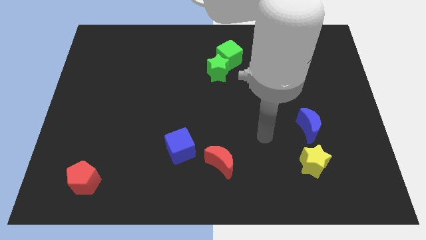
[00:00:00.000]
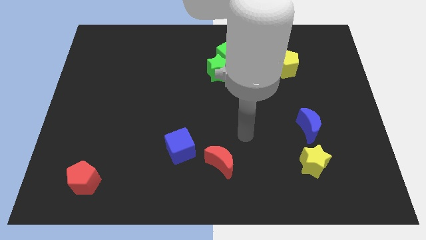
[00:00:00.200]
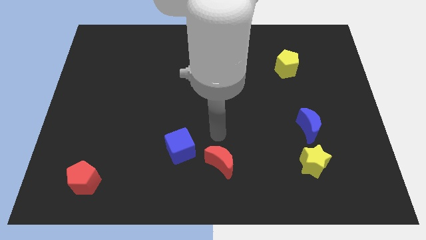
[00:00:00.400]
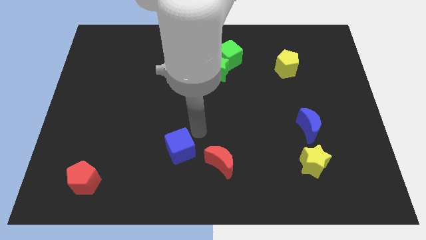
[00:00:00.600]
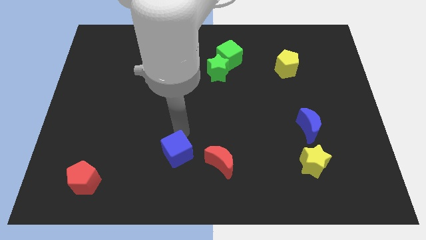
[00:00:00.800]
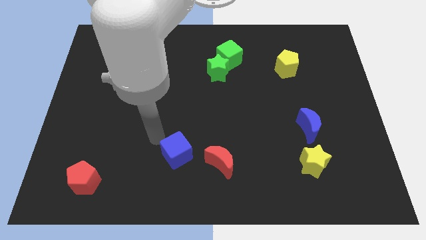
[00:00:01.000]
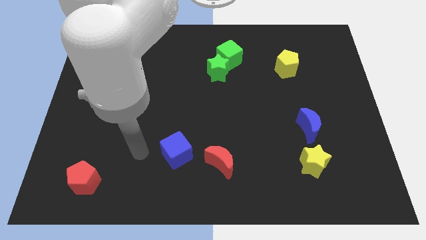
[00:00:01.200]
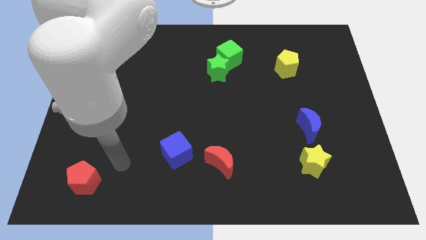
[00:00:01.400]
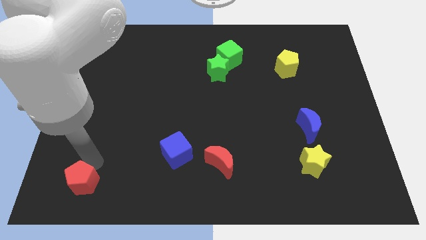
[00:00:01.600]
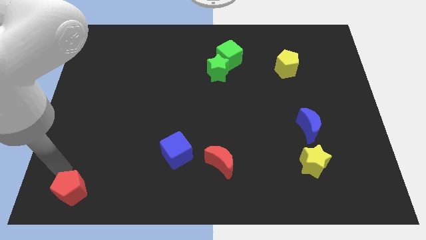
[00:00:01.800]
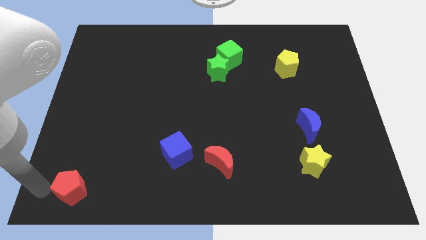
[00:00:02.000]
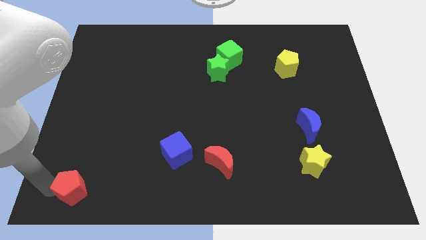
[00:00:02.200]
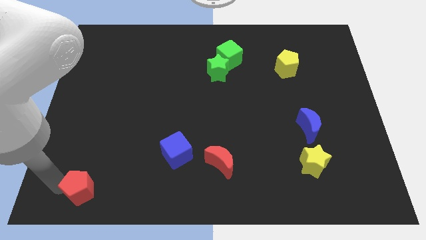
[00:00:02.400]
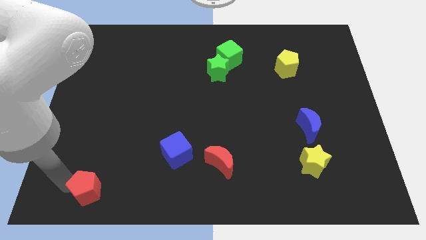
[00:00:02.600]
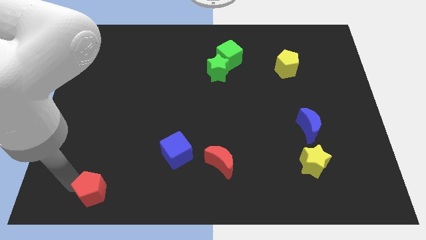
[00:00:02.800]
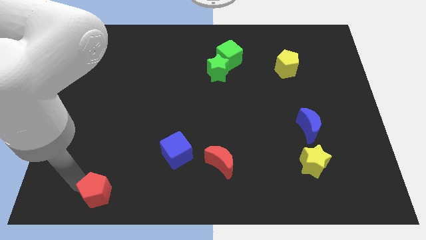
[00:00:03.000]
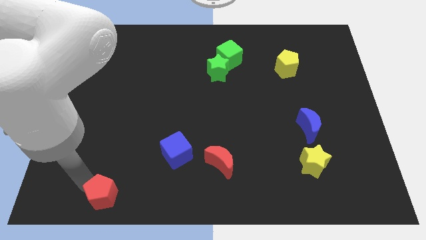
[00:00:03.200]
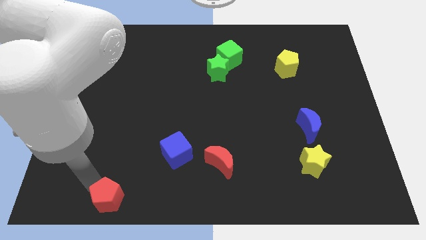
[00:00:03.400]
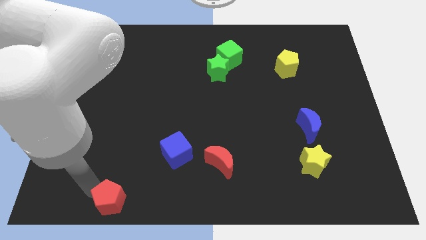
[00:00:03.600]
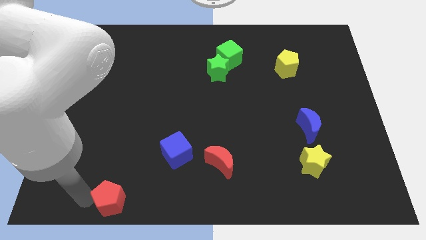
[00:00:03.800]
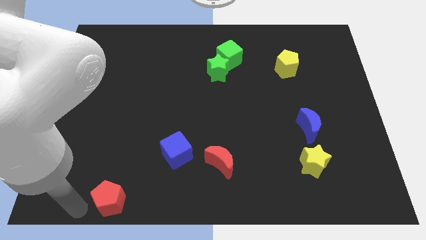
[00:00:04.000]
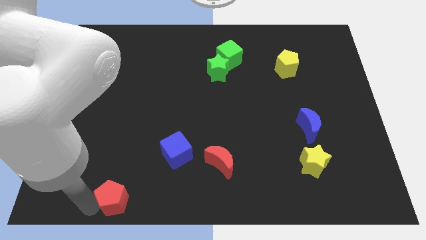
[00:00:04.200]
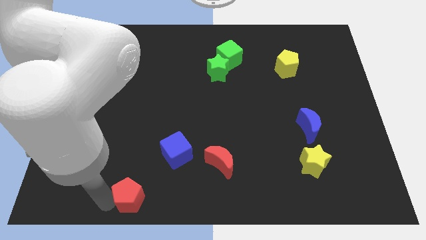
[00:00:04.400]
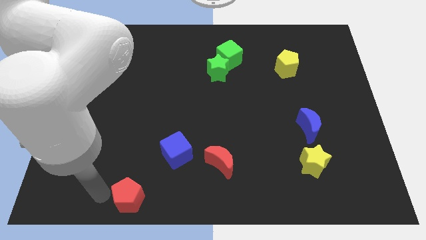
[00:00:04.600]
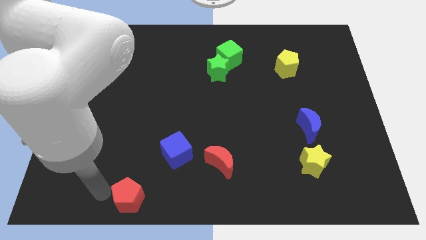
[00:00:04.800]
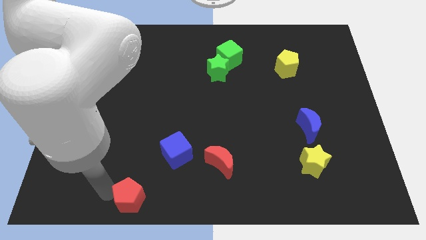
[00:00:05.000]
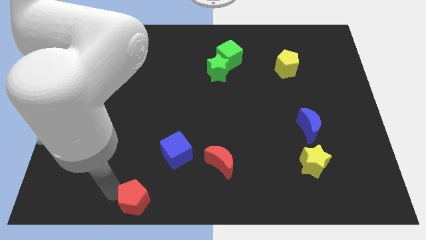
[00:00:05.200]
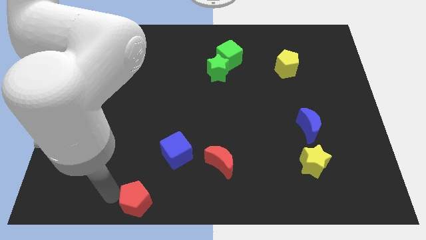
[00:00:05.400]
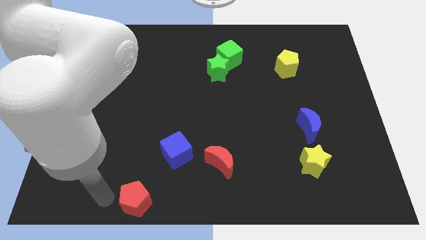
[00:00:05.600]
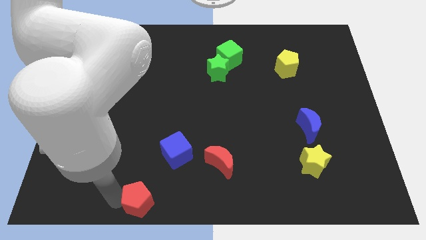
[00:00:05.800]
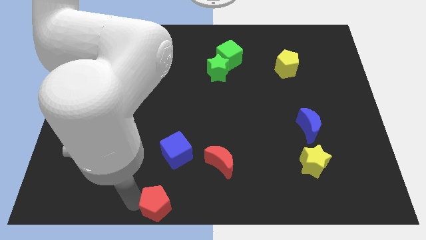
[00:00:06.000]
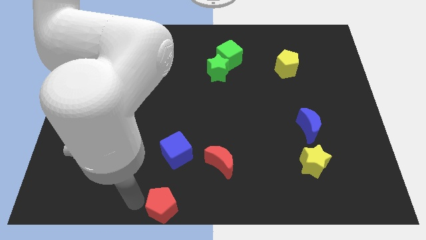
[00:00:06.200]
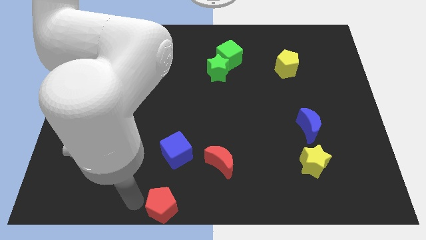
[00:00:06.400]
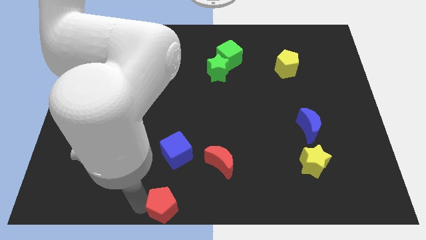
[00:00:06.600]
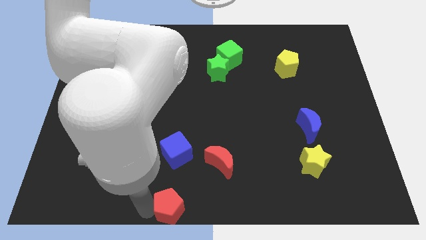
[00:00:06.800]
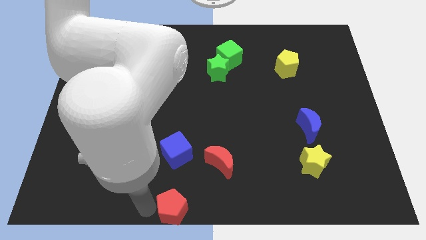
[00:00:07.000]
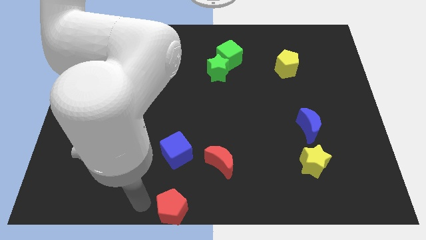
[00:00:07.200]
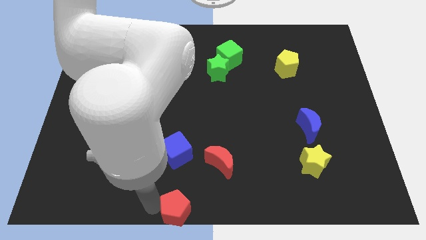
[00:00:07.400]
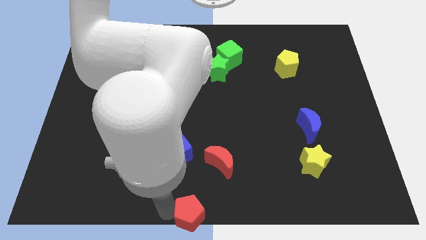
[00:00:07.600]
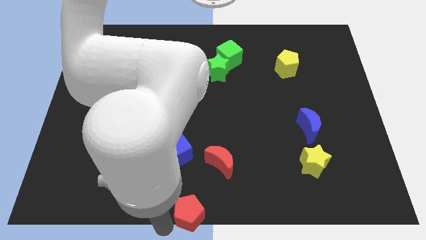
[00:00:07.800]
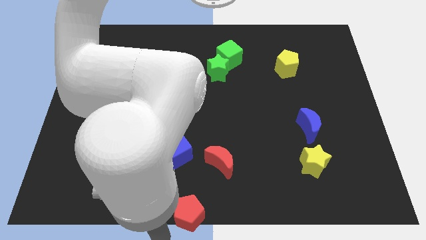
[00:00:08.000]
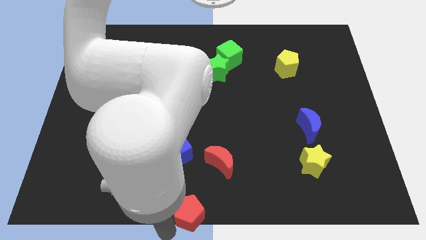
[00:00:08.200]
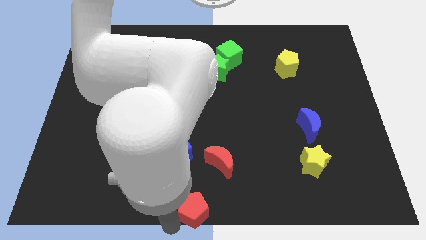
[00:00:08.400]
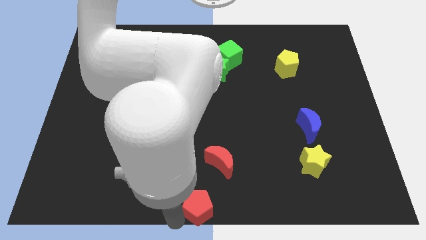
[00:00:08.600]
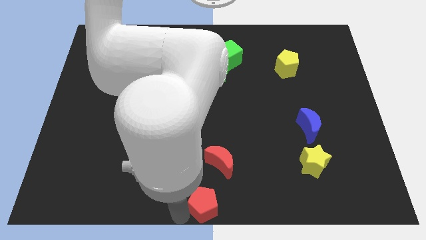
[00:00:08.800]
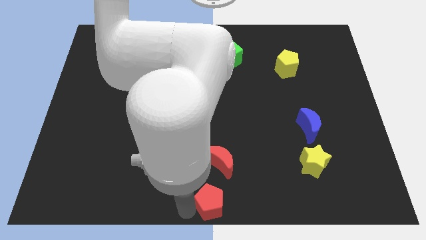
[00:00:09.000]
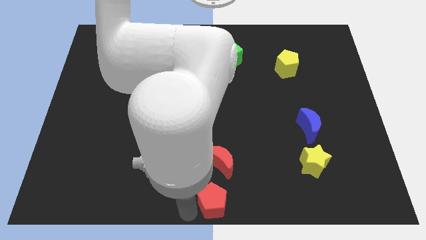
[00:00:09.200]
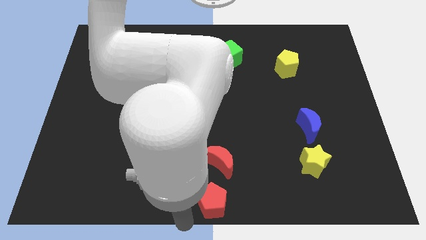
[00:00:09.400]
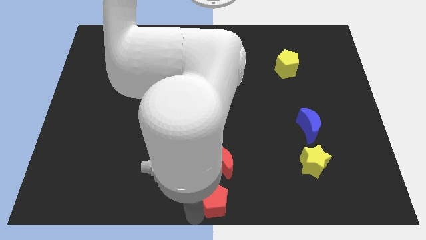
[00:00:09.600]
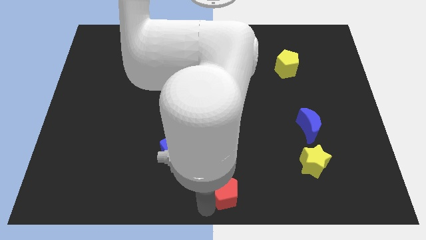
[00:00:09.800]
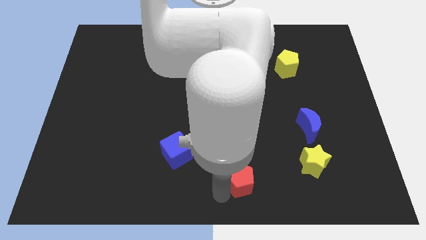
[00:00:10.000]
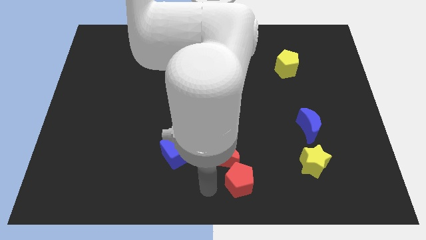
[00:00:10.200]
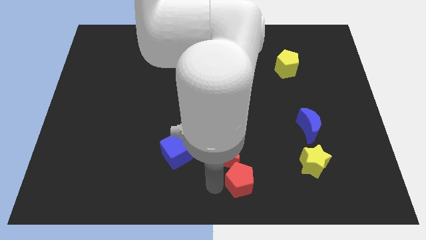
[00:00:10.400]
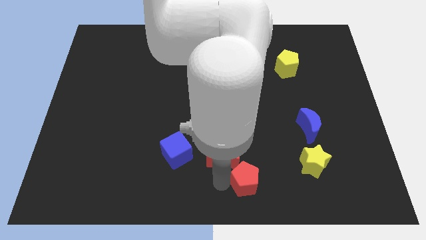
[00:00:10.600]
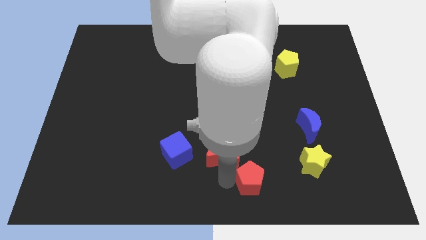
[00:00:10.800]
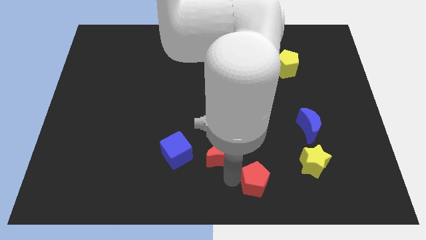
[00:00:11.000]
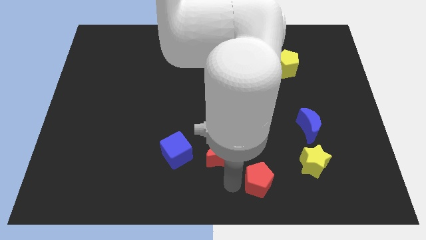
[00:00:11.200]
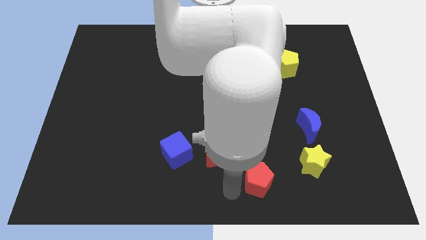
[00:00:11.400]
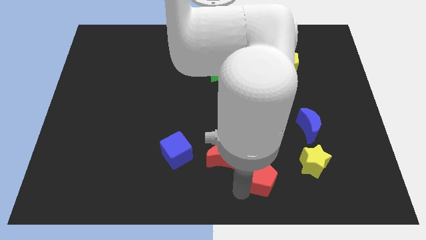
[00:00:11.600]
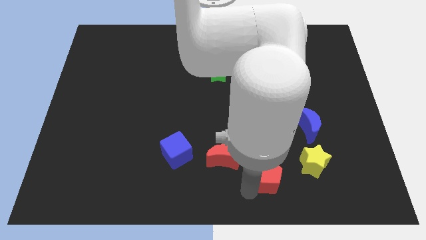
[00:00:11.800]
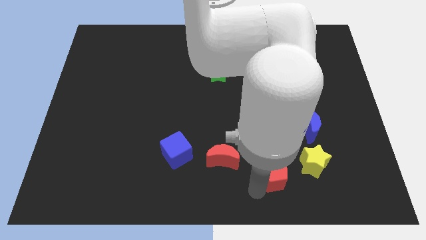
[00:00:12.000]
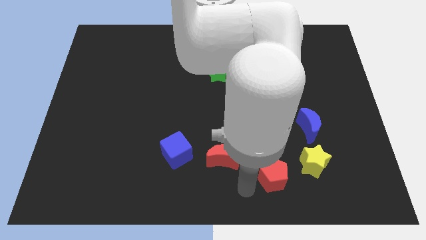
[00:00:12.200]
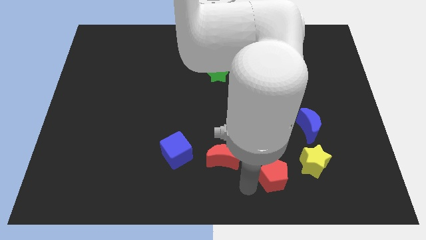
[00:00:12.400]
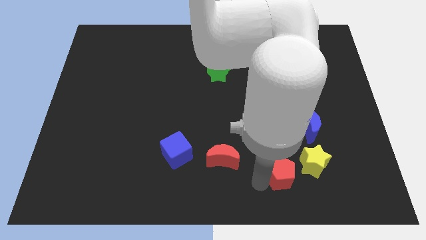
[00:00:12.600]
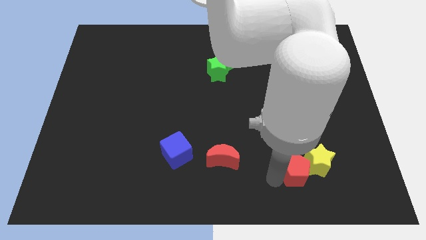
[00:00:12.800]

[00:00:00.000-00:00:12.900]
push the red pentagon to the yellow star
